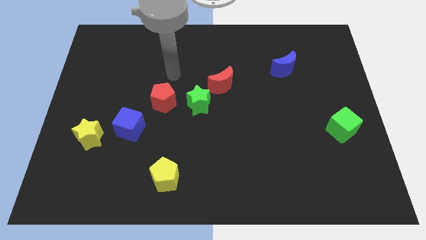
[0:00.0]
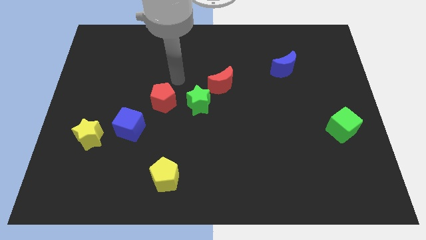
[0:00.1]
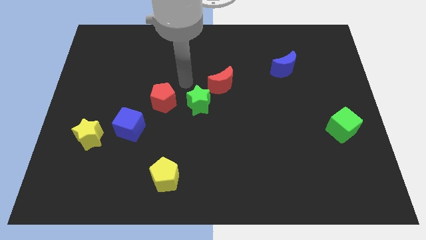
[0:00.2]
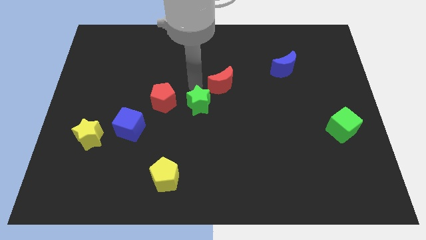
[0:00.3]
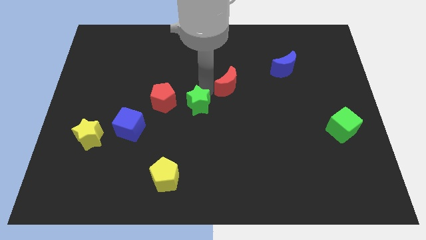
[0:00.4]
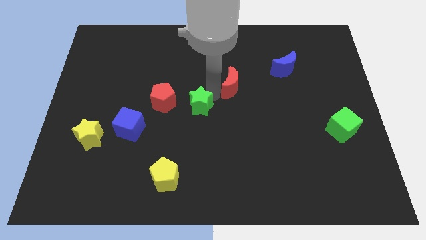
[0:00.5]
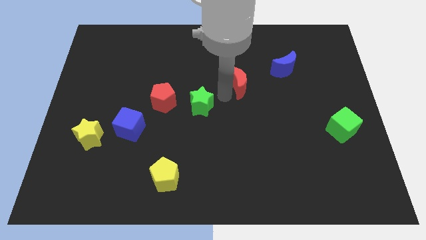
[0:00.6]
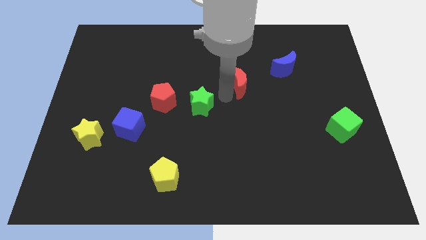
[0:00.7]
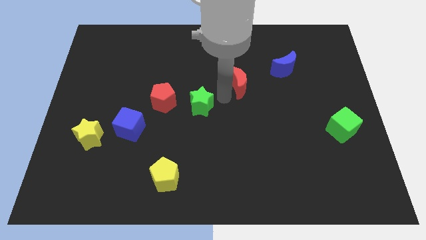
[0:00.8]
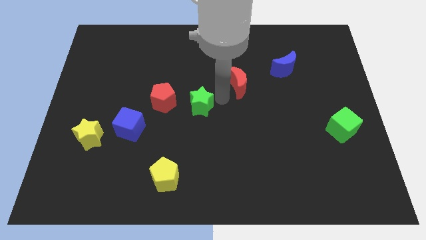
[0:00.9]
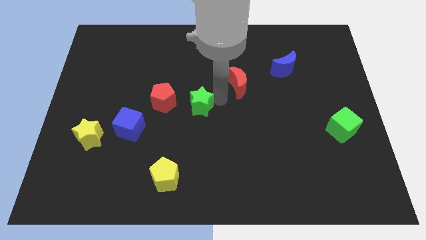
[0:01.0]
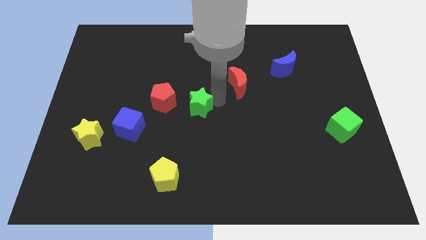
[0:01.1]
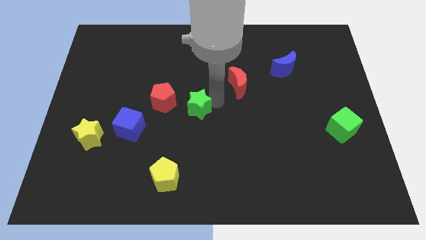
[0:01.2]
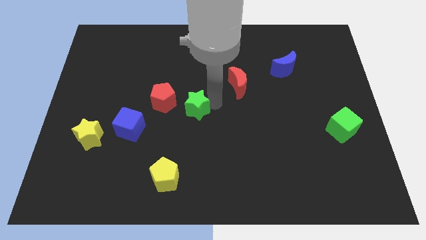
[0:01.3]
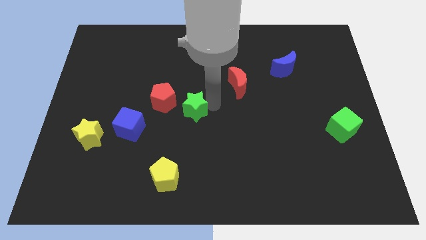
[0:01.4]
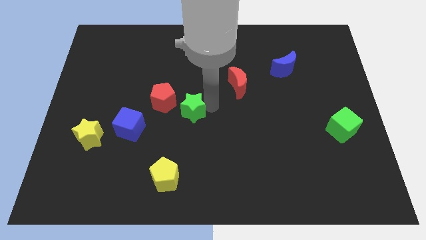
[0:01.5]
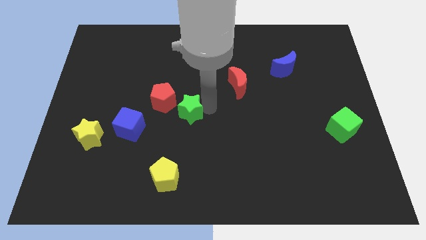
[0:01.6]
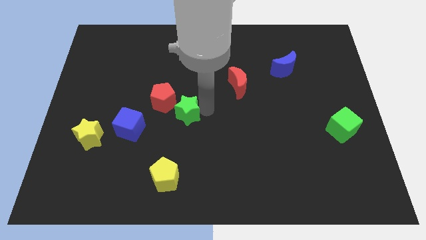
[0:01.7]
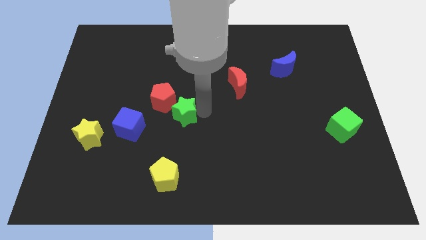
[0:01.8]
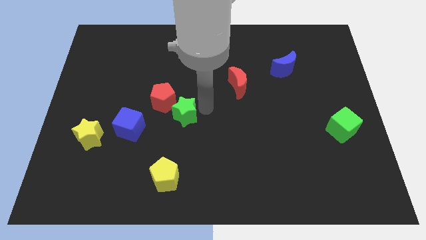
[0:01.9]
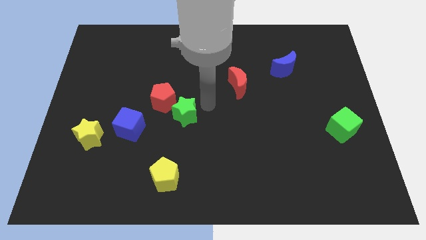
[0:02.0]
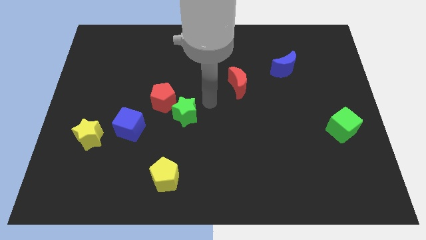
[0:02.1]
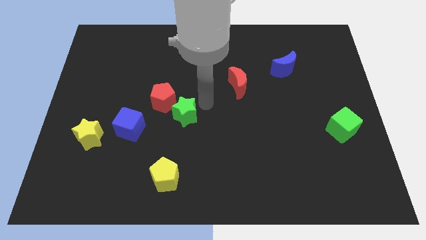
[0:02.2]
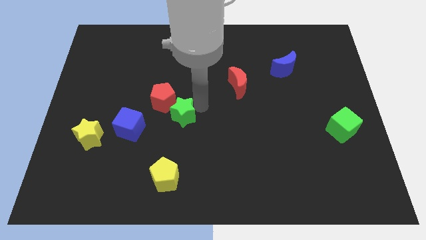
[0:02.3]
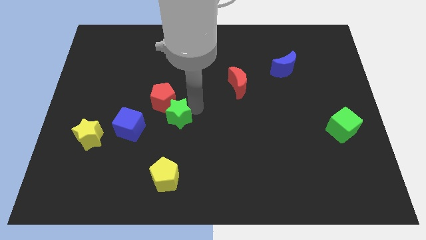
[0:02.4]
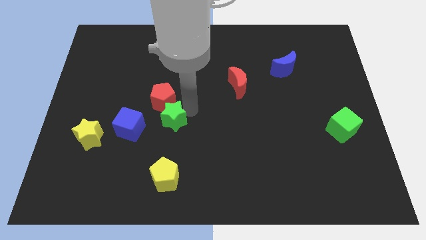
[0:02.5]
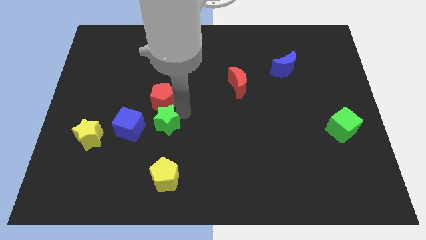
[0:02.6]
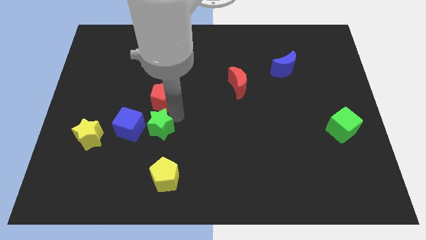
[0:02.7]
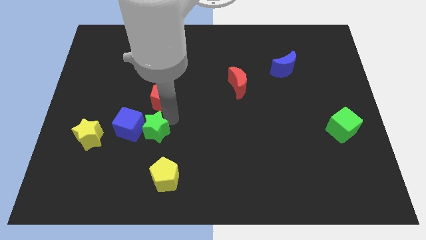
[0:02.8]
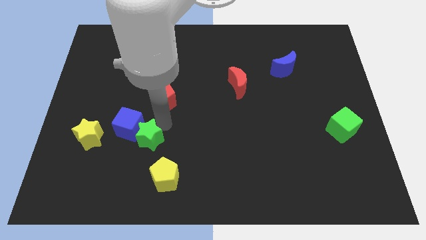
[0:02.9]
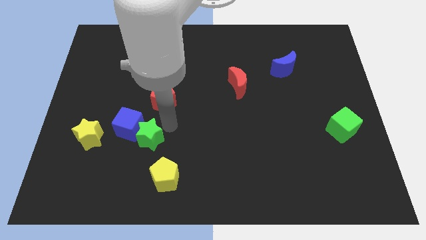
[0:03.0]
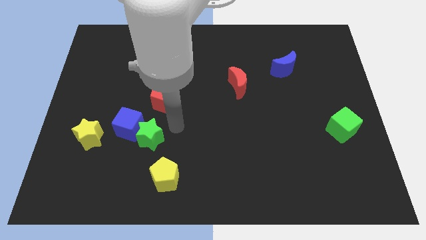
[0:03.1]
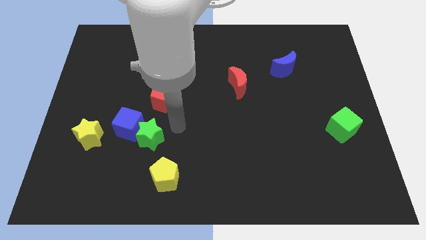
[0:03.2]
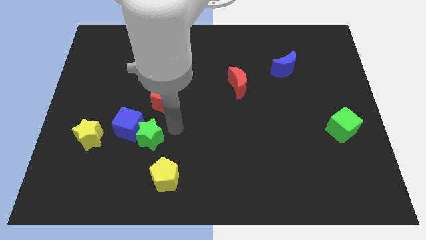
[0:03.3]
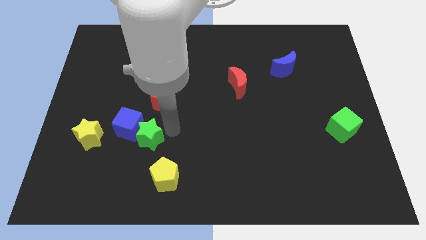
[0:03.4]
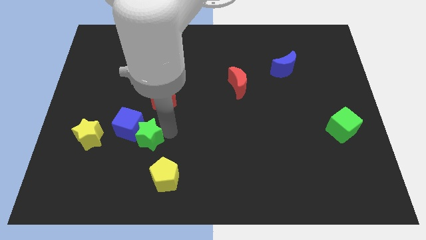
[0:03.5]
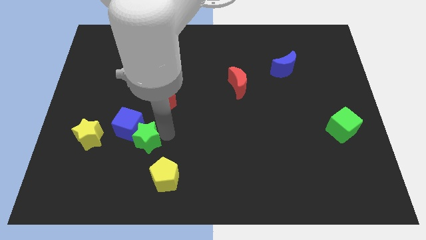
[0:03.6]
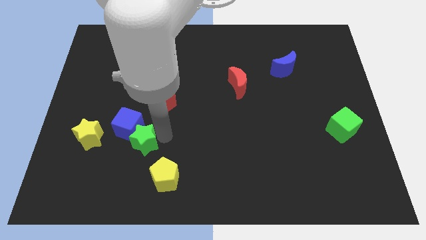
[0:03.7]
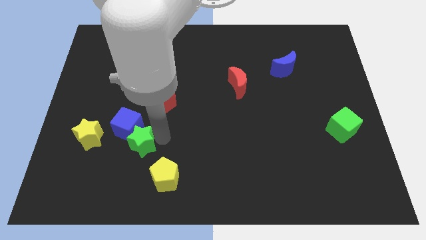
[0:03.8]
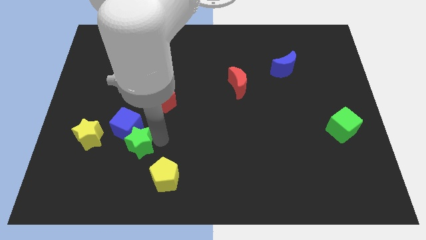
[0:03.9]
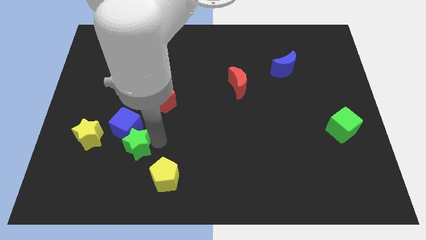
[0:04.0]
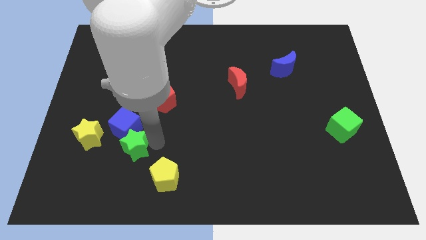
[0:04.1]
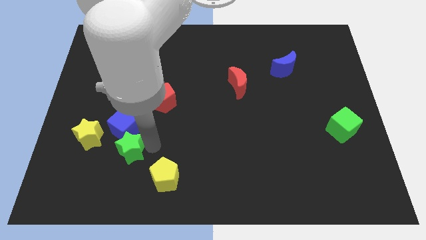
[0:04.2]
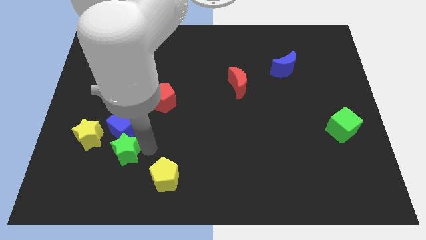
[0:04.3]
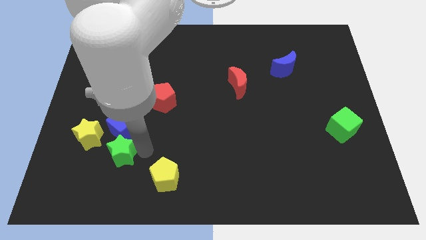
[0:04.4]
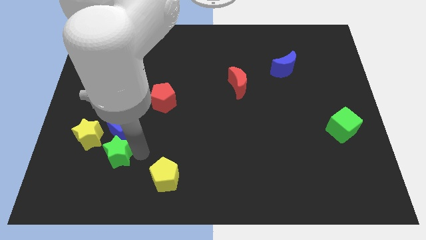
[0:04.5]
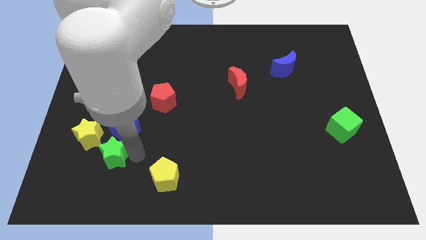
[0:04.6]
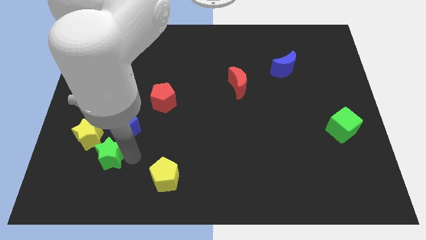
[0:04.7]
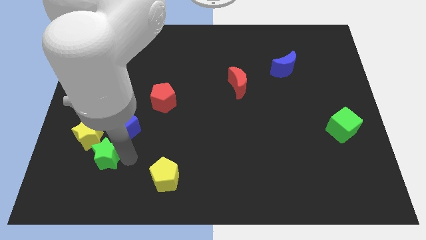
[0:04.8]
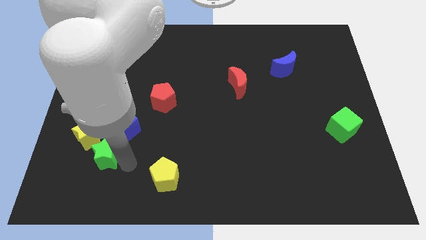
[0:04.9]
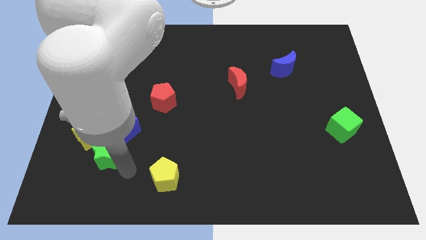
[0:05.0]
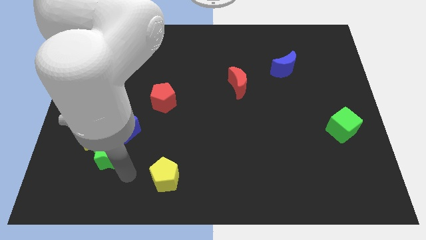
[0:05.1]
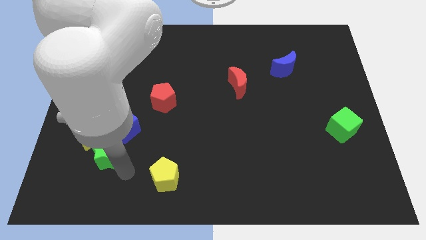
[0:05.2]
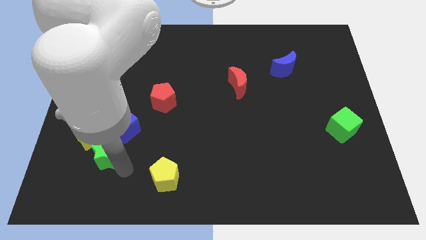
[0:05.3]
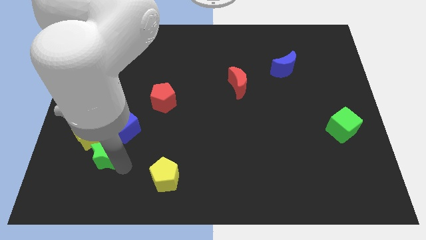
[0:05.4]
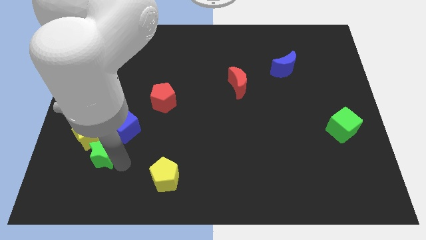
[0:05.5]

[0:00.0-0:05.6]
move the green star towards the yellow star

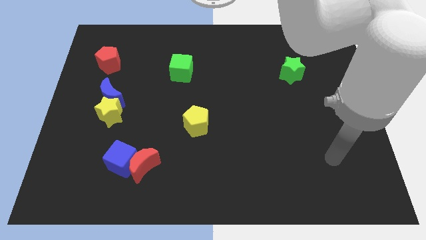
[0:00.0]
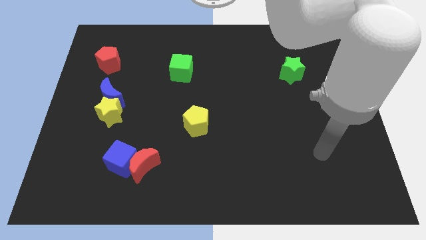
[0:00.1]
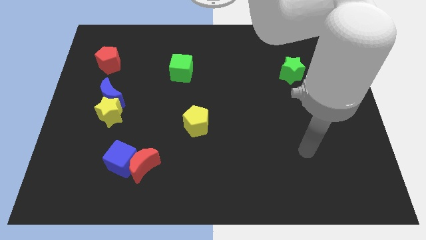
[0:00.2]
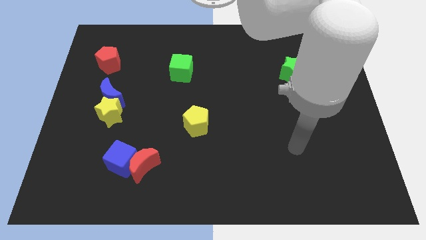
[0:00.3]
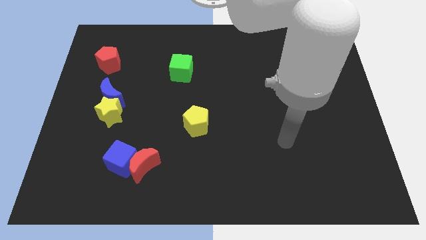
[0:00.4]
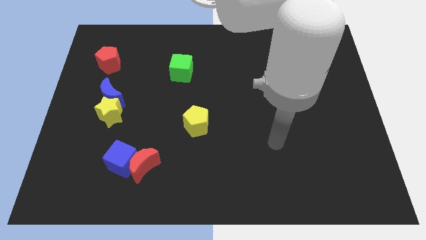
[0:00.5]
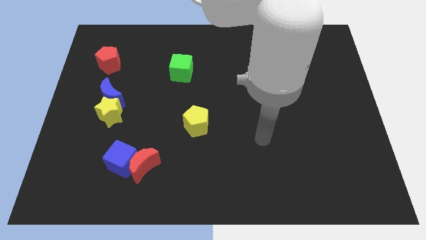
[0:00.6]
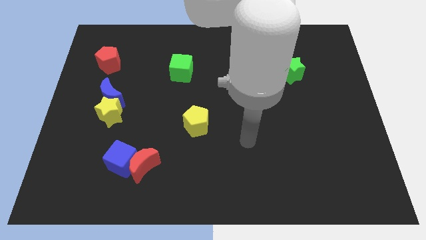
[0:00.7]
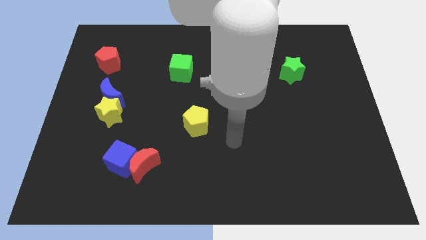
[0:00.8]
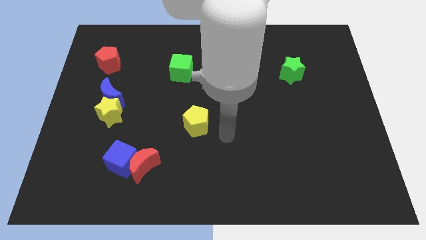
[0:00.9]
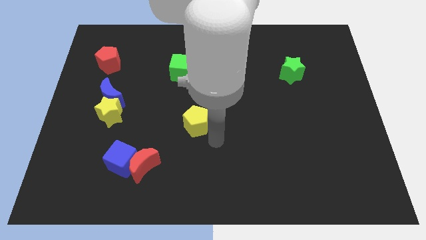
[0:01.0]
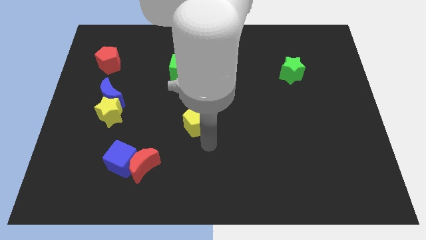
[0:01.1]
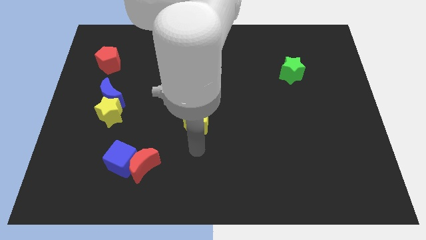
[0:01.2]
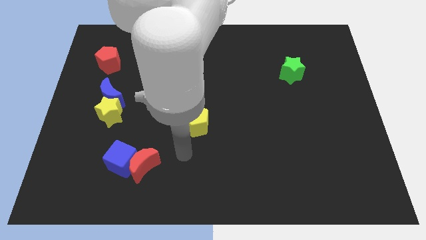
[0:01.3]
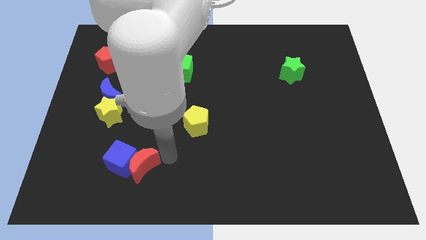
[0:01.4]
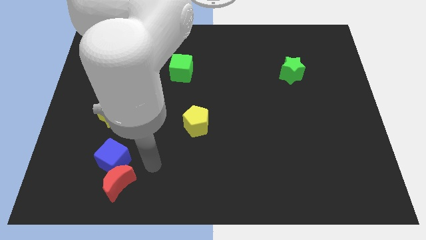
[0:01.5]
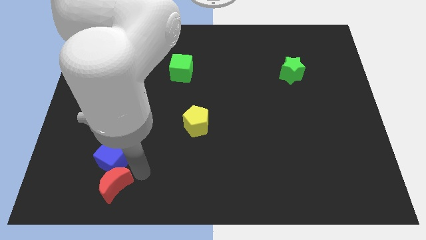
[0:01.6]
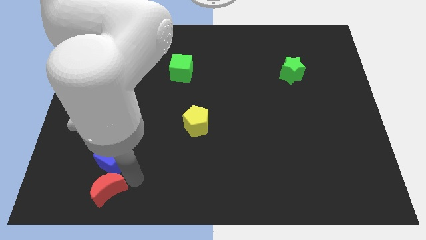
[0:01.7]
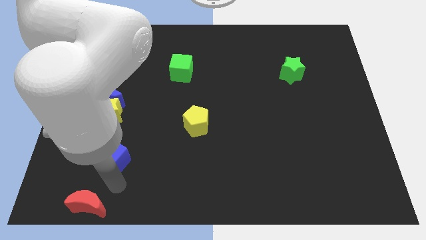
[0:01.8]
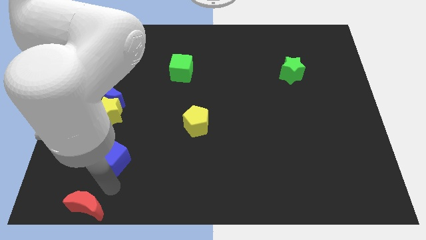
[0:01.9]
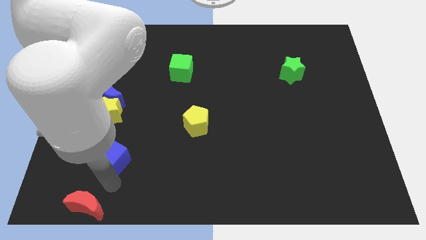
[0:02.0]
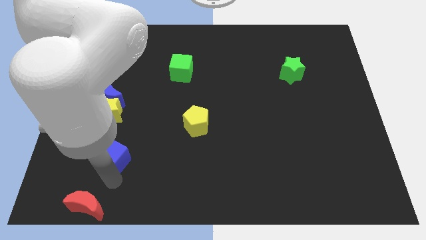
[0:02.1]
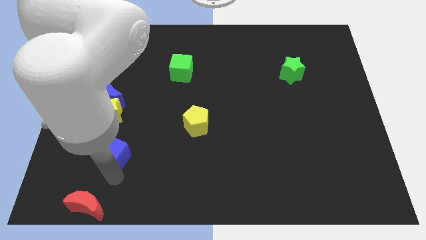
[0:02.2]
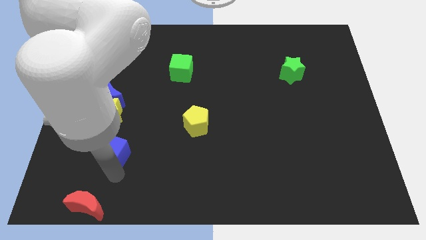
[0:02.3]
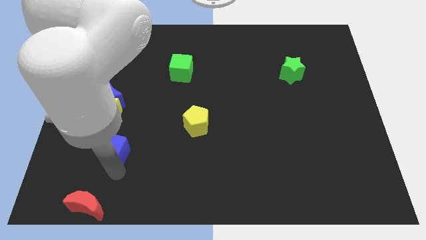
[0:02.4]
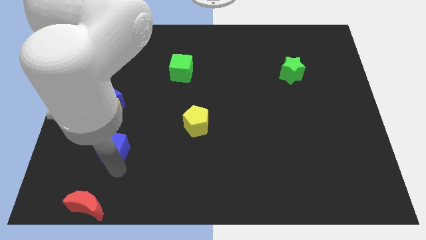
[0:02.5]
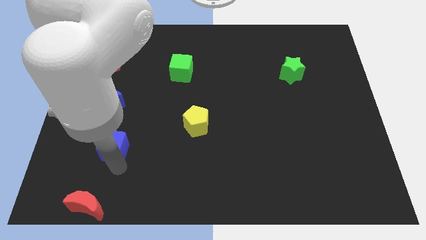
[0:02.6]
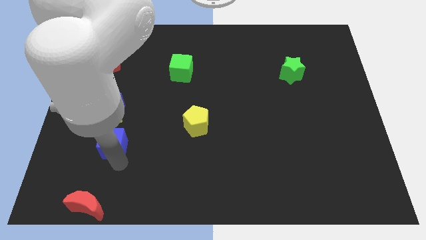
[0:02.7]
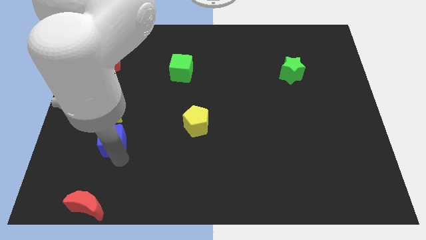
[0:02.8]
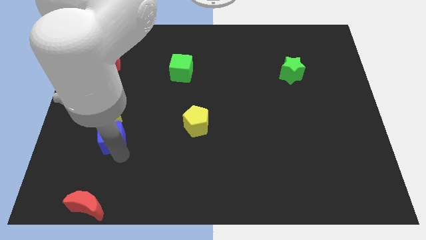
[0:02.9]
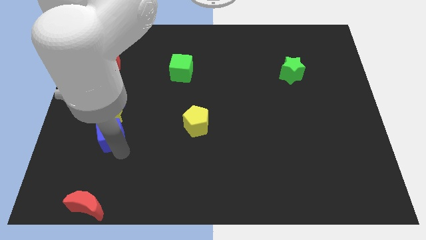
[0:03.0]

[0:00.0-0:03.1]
put the blue cube to the yellow star
